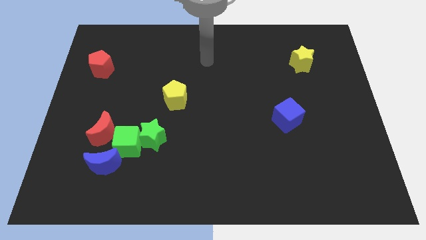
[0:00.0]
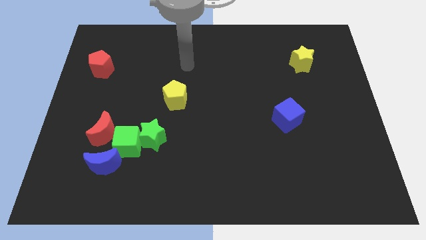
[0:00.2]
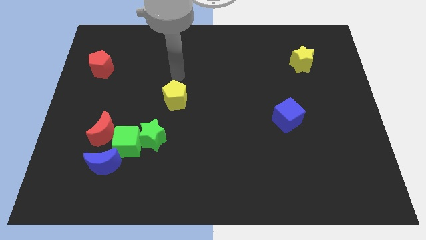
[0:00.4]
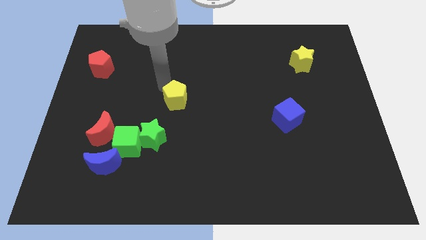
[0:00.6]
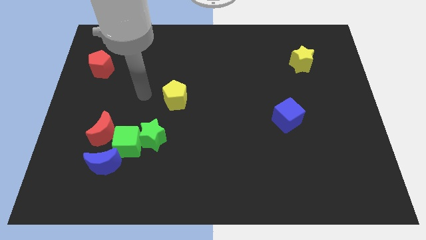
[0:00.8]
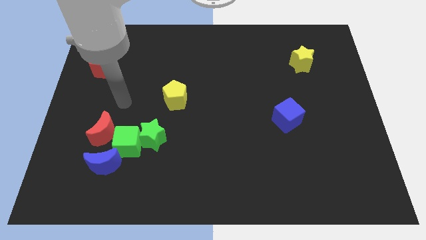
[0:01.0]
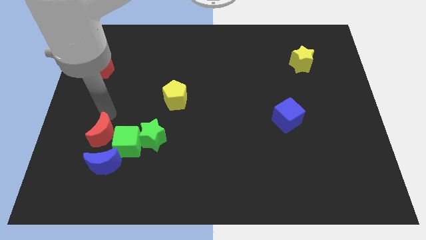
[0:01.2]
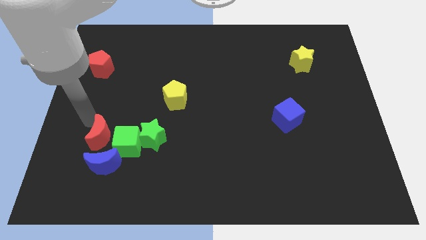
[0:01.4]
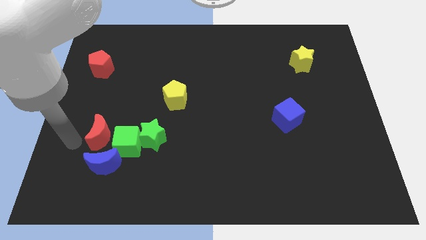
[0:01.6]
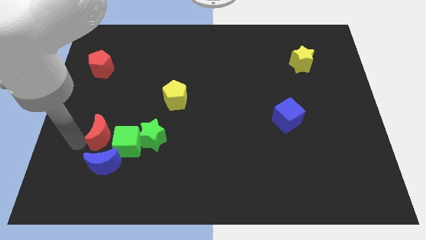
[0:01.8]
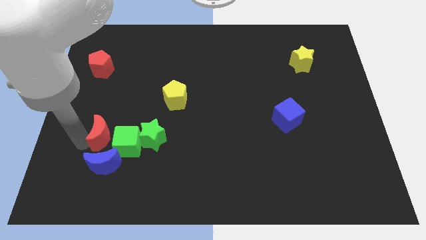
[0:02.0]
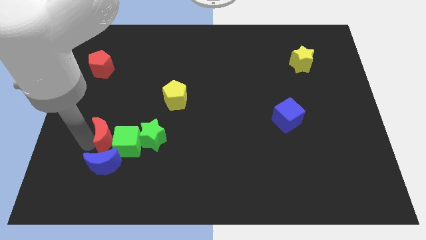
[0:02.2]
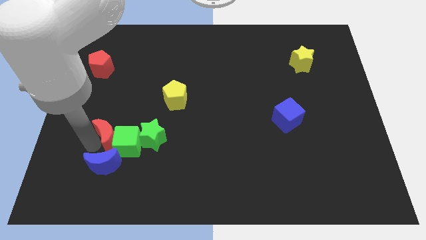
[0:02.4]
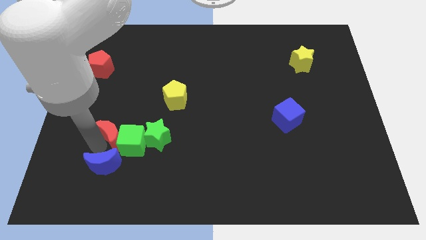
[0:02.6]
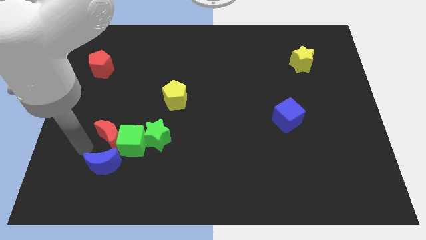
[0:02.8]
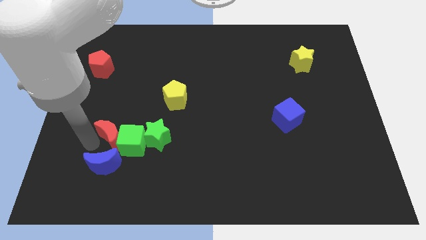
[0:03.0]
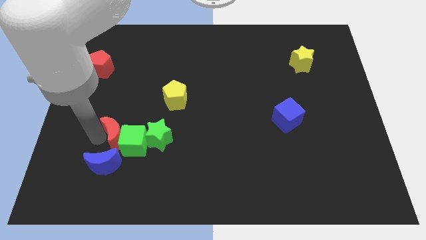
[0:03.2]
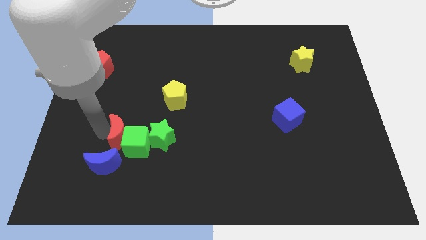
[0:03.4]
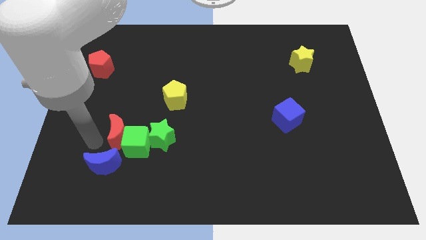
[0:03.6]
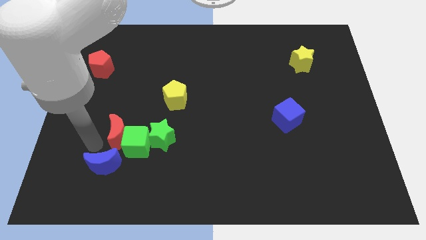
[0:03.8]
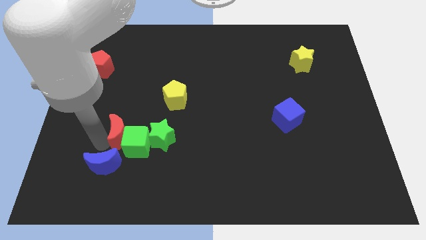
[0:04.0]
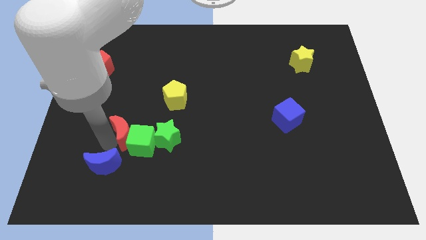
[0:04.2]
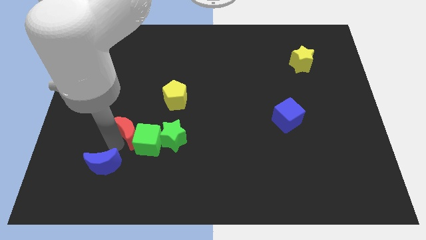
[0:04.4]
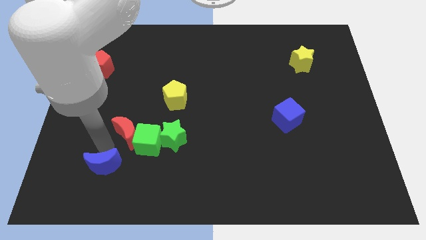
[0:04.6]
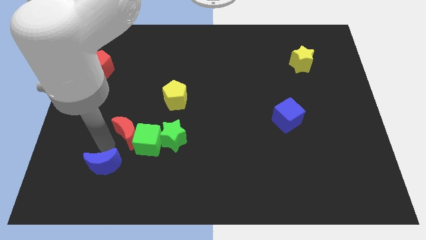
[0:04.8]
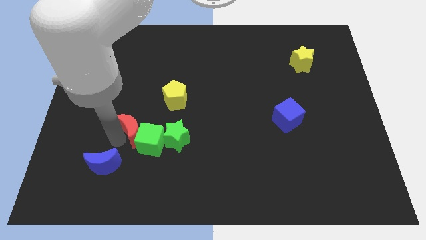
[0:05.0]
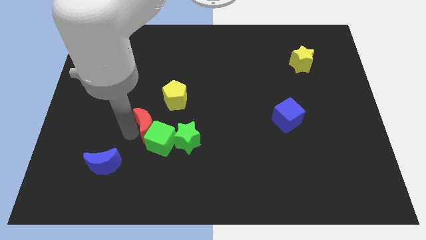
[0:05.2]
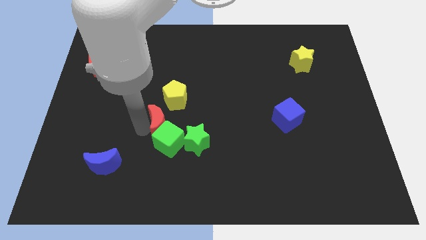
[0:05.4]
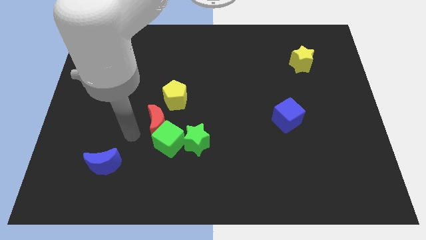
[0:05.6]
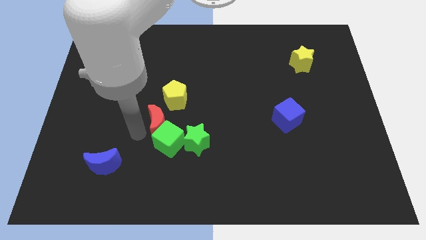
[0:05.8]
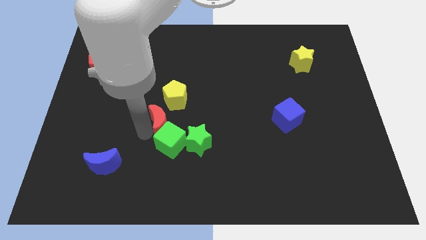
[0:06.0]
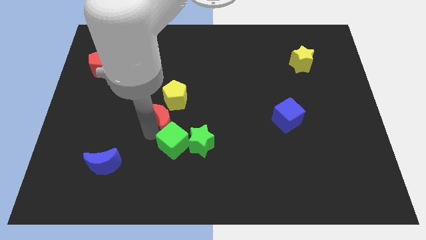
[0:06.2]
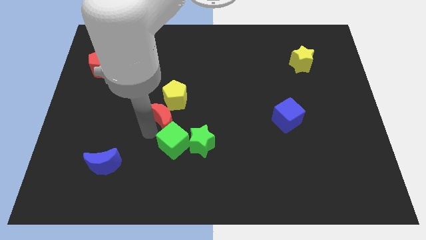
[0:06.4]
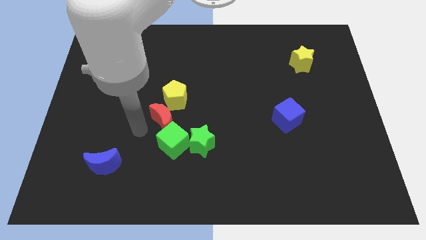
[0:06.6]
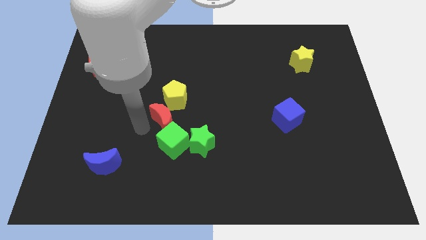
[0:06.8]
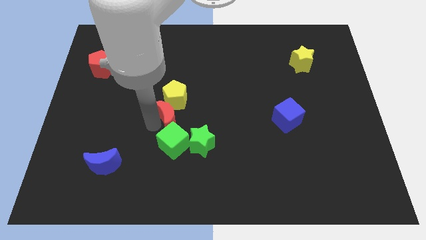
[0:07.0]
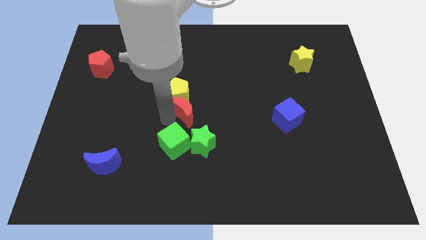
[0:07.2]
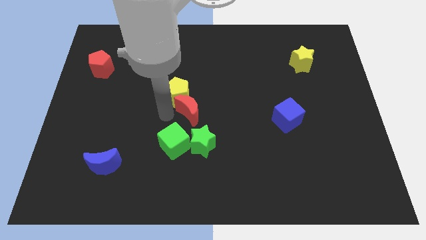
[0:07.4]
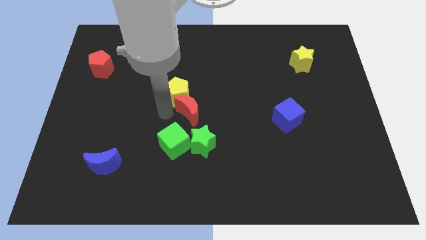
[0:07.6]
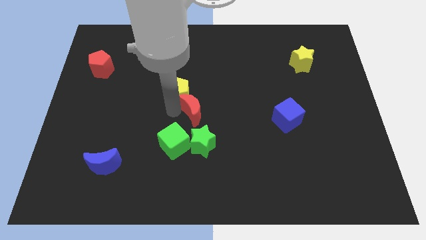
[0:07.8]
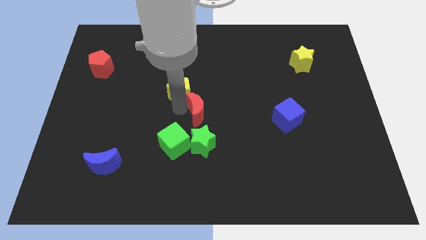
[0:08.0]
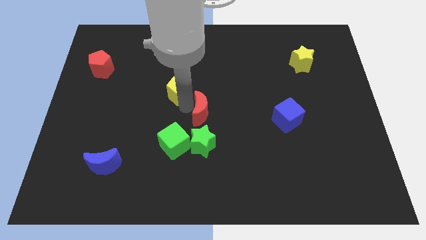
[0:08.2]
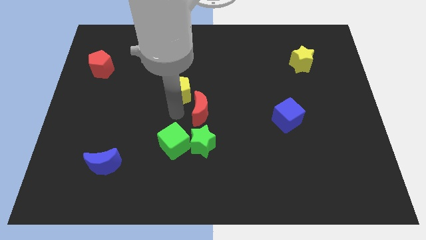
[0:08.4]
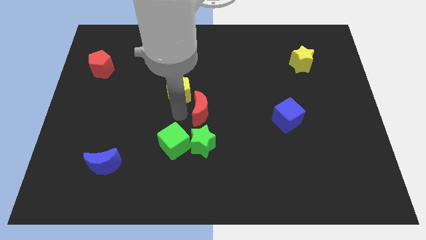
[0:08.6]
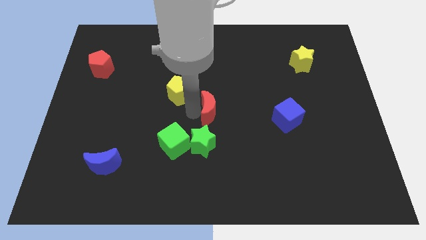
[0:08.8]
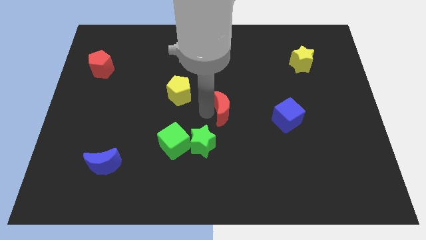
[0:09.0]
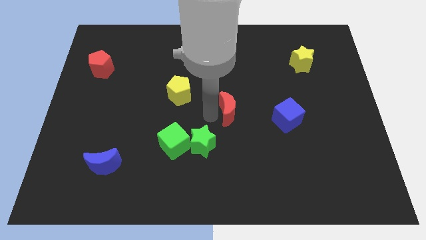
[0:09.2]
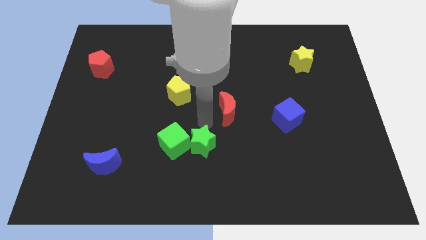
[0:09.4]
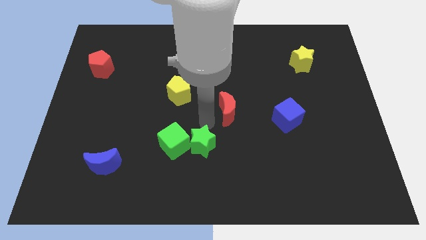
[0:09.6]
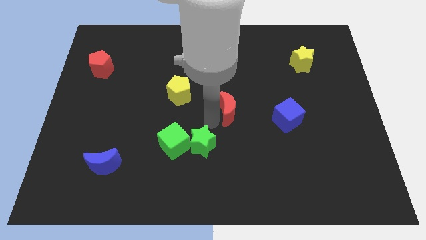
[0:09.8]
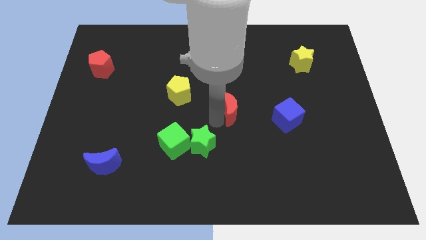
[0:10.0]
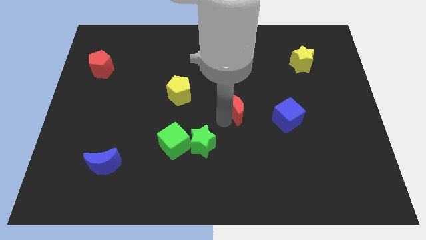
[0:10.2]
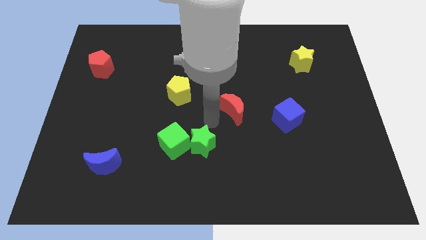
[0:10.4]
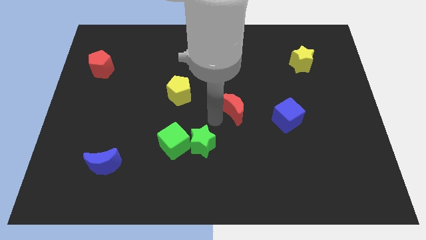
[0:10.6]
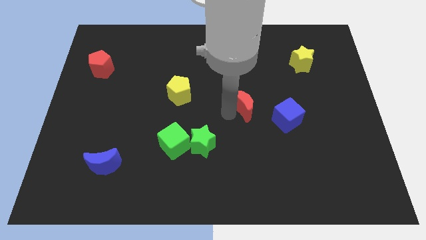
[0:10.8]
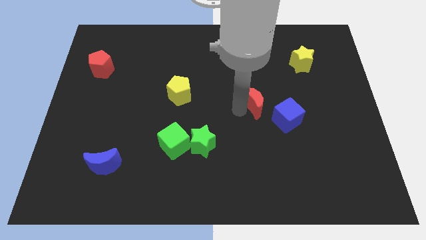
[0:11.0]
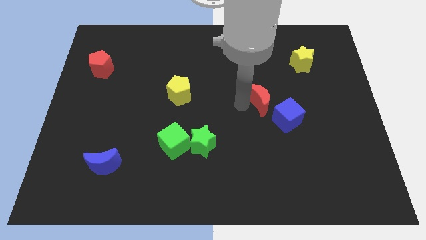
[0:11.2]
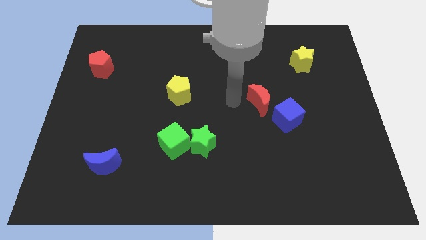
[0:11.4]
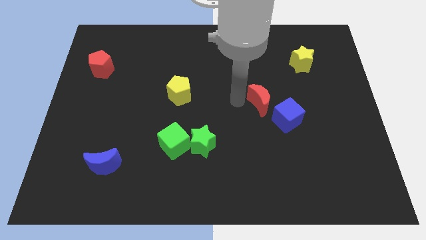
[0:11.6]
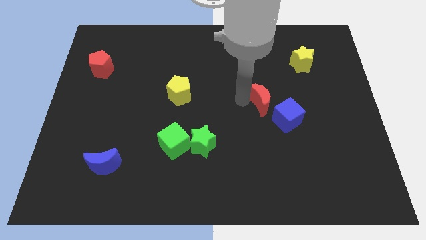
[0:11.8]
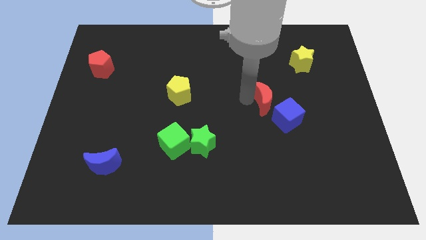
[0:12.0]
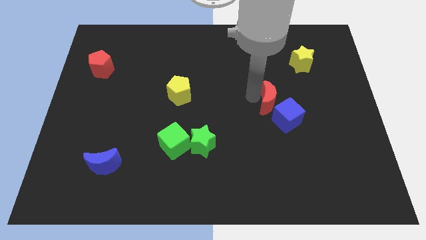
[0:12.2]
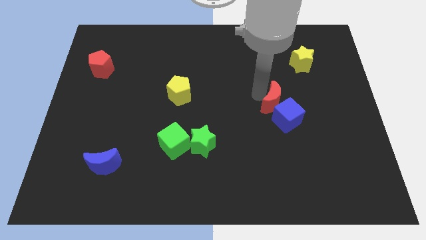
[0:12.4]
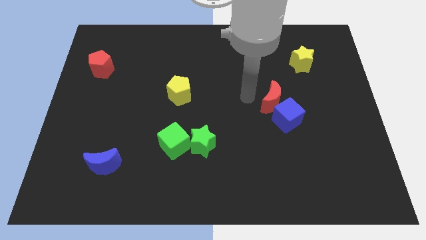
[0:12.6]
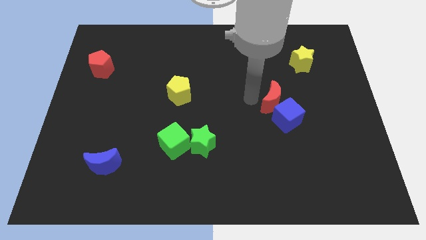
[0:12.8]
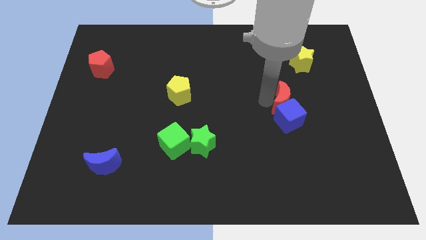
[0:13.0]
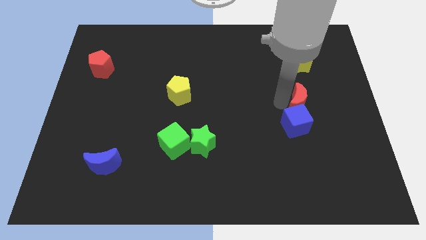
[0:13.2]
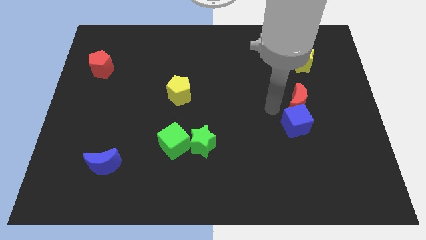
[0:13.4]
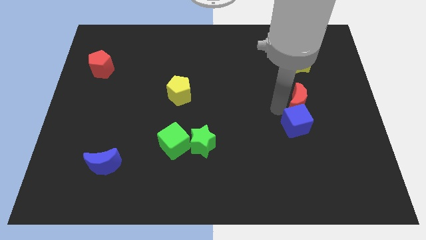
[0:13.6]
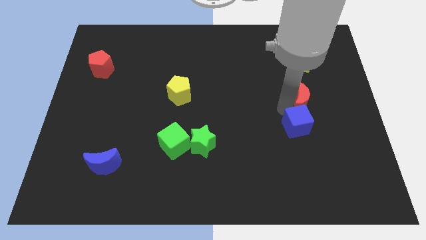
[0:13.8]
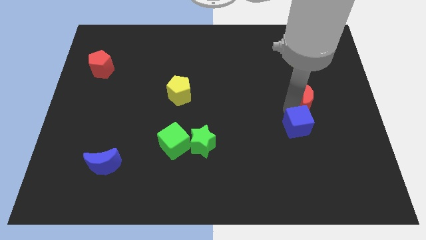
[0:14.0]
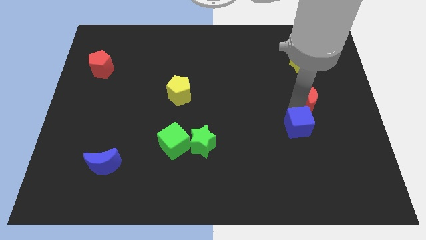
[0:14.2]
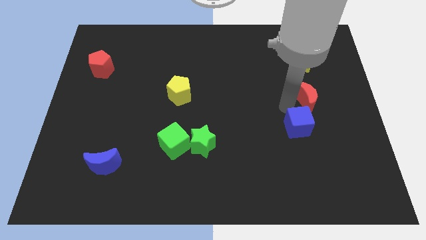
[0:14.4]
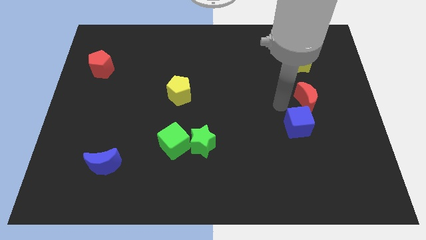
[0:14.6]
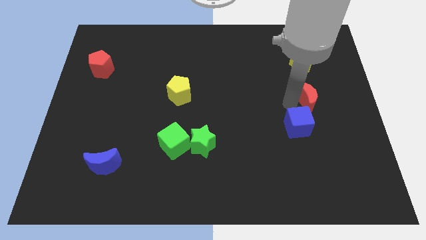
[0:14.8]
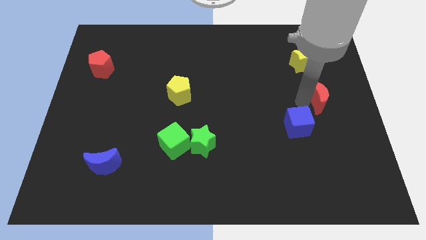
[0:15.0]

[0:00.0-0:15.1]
slide the red moon to the right side

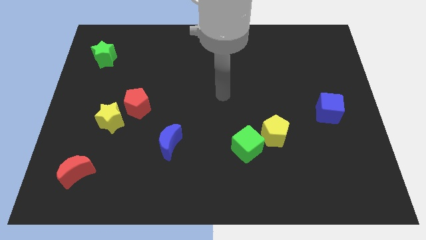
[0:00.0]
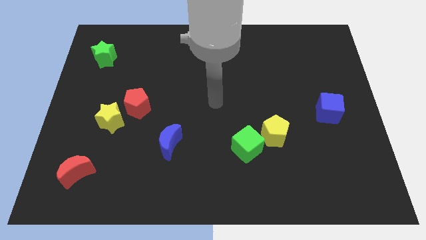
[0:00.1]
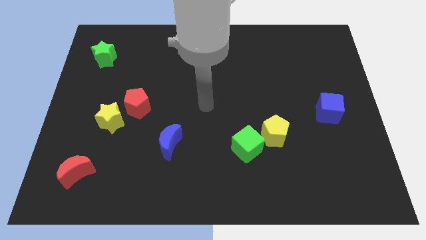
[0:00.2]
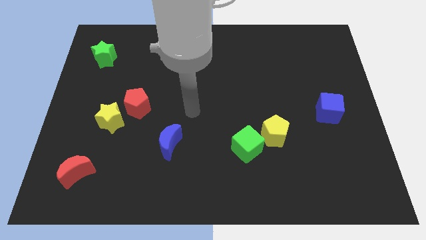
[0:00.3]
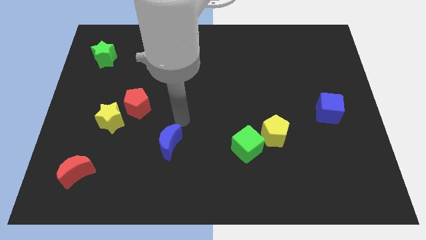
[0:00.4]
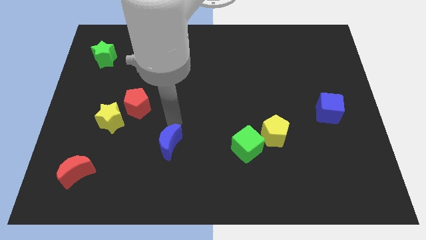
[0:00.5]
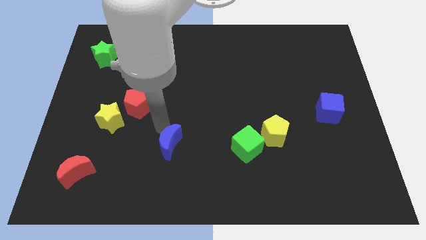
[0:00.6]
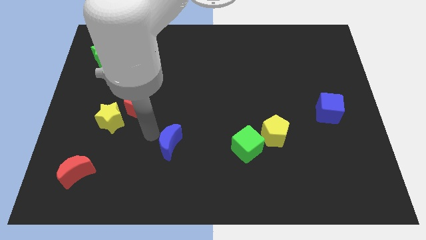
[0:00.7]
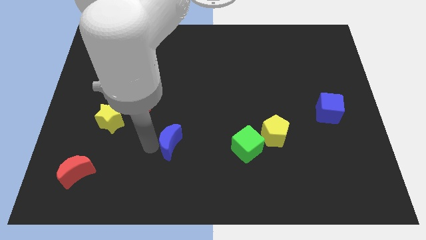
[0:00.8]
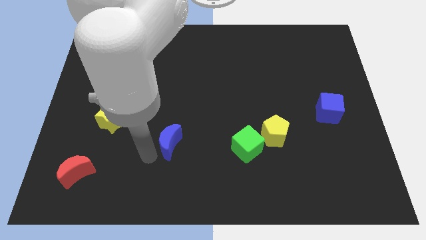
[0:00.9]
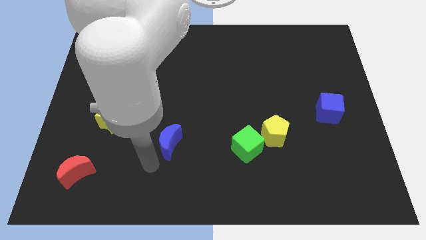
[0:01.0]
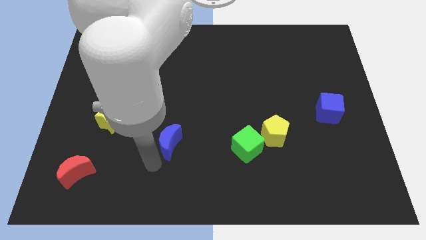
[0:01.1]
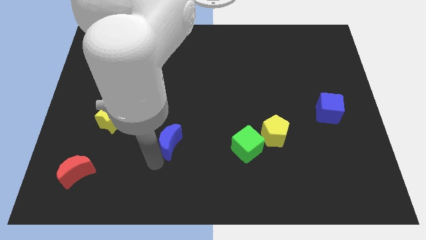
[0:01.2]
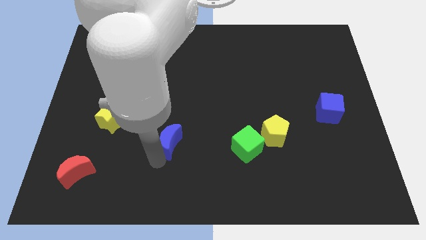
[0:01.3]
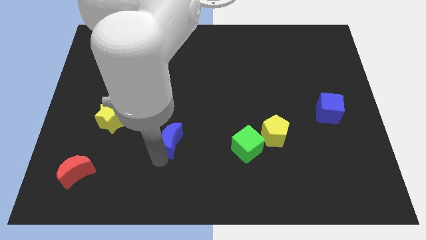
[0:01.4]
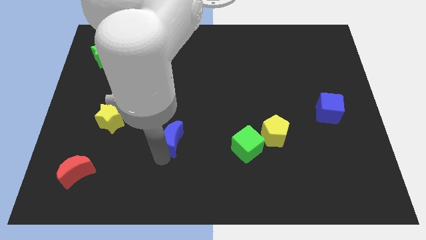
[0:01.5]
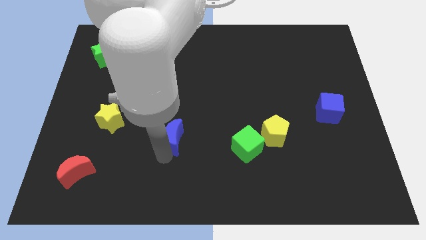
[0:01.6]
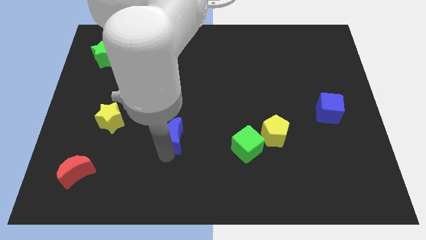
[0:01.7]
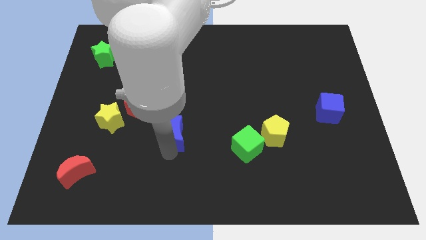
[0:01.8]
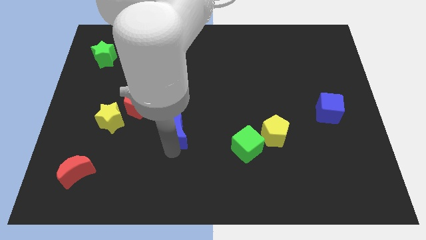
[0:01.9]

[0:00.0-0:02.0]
push the blue moon to the center
